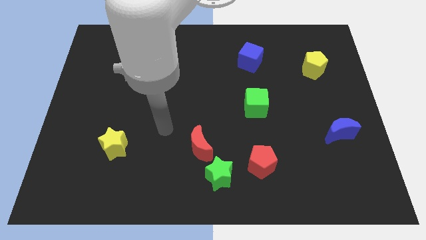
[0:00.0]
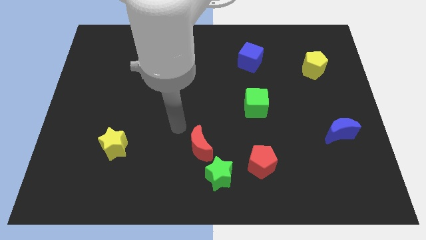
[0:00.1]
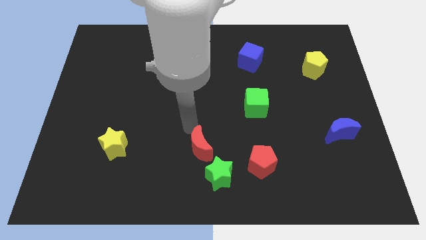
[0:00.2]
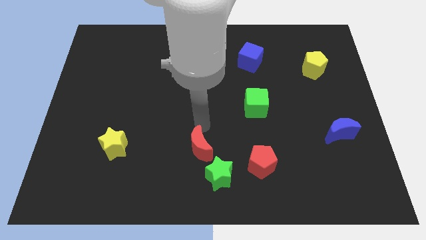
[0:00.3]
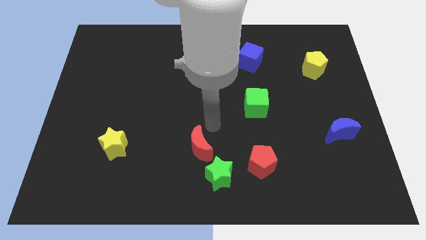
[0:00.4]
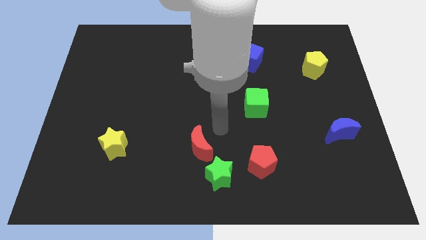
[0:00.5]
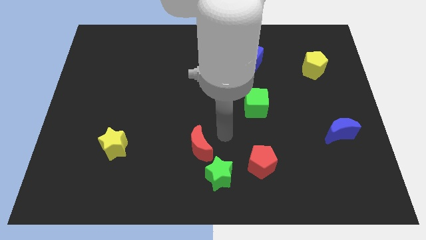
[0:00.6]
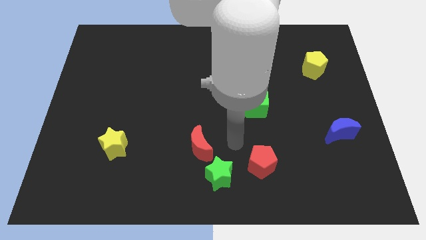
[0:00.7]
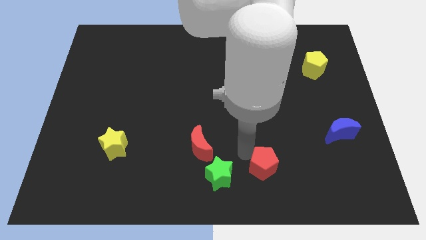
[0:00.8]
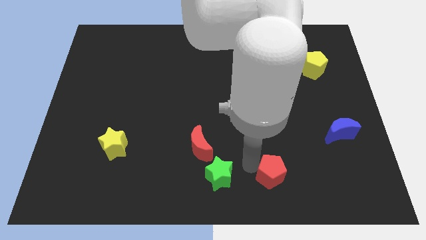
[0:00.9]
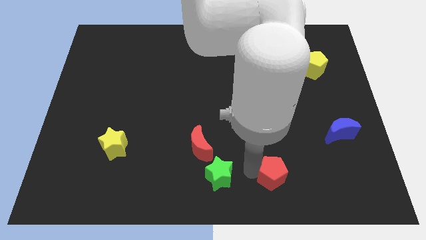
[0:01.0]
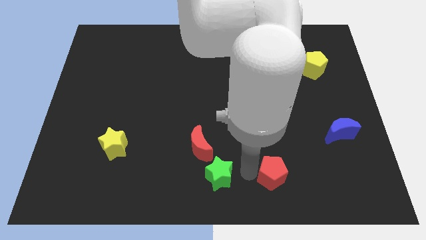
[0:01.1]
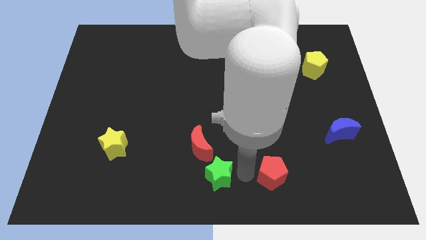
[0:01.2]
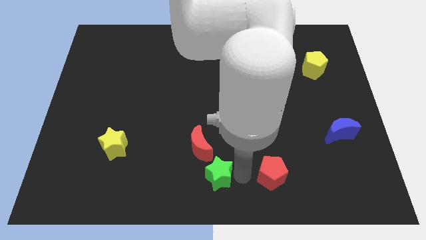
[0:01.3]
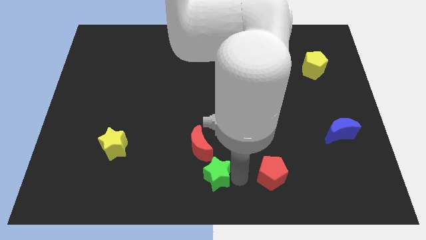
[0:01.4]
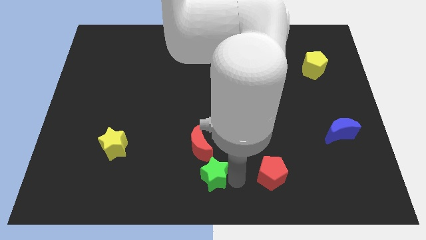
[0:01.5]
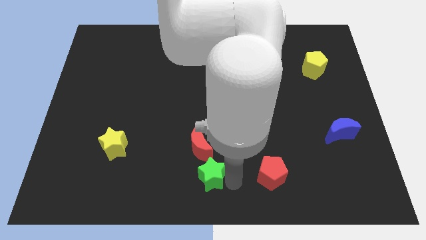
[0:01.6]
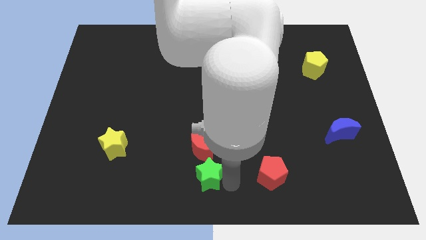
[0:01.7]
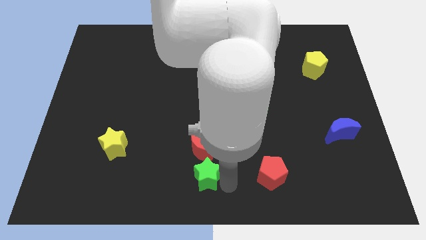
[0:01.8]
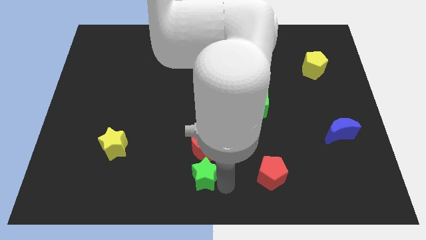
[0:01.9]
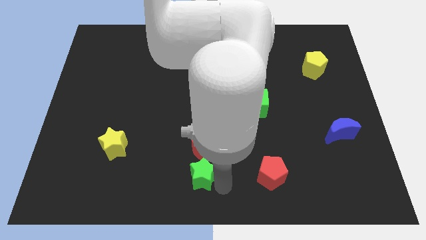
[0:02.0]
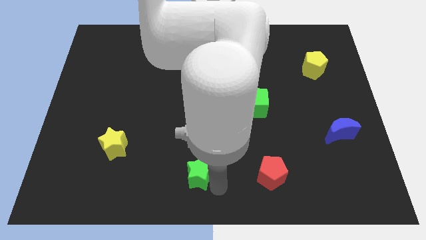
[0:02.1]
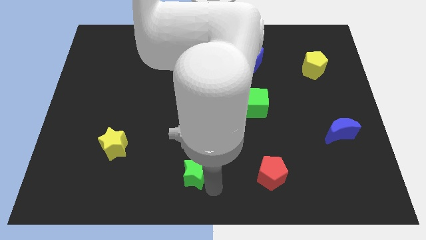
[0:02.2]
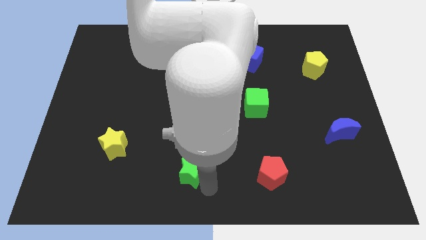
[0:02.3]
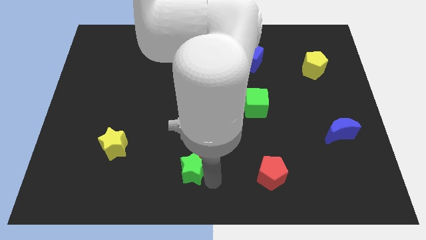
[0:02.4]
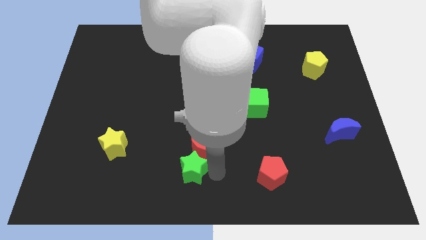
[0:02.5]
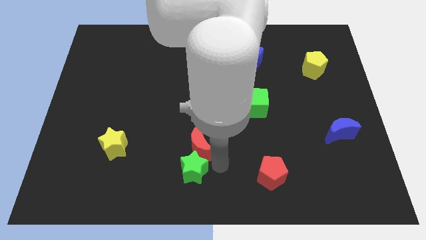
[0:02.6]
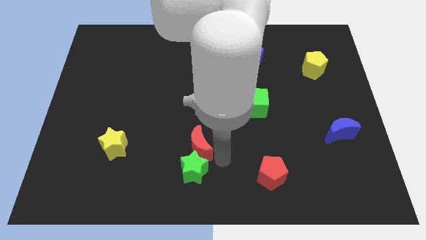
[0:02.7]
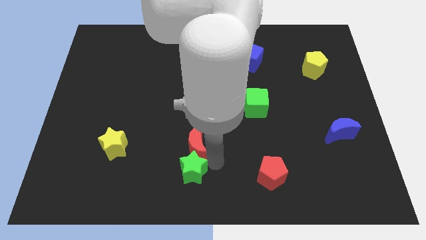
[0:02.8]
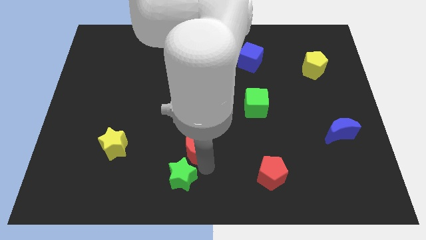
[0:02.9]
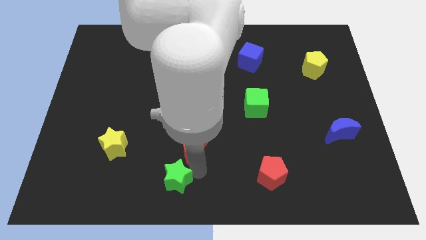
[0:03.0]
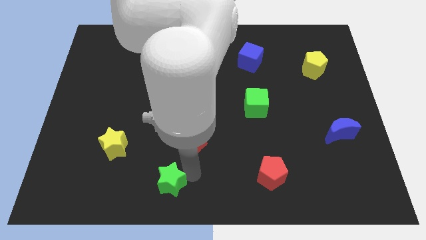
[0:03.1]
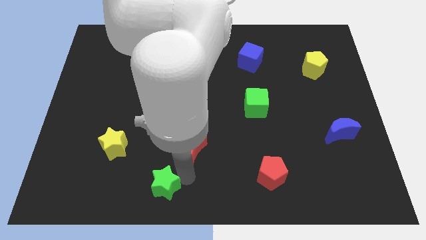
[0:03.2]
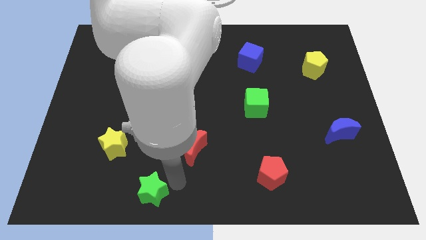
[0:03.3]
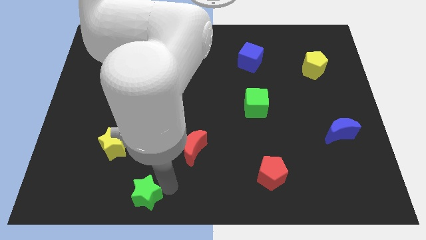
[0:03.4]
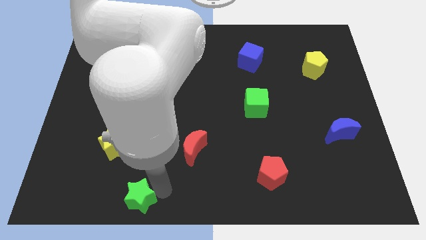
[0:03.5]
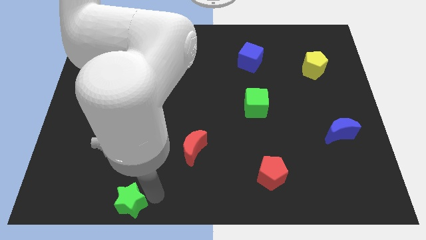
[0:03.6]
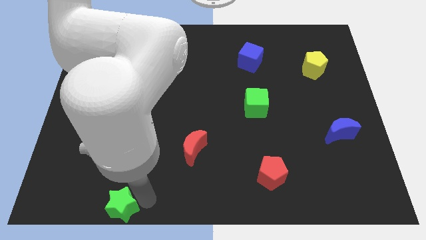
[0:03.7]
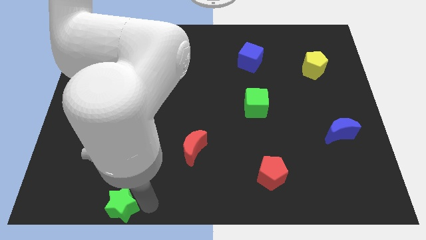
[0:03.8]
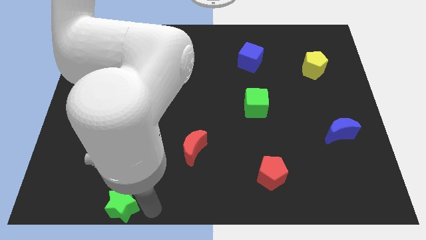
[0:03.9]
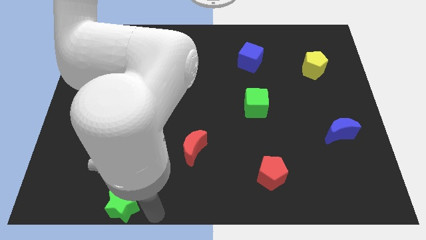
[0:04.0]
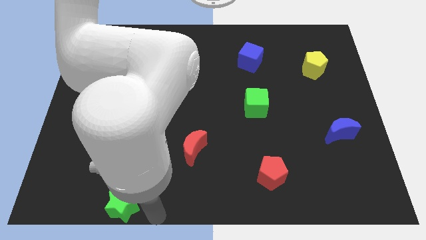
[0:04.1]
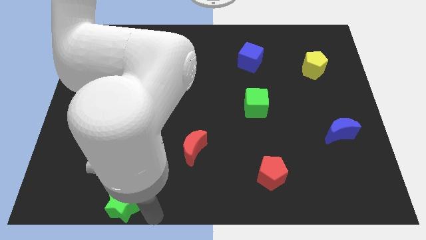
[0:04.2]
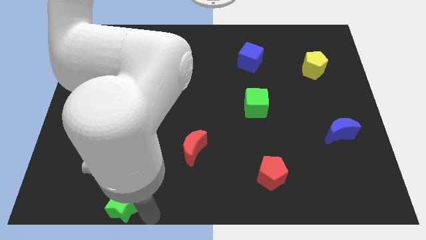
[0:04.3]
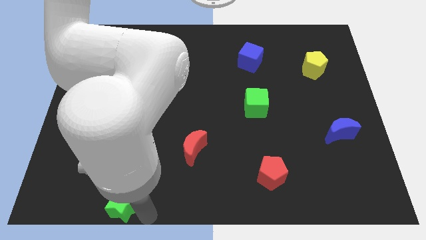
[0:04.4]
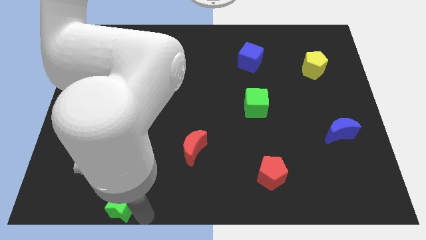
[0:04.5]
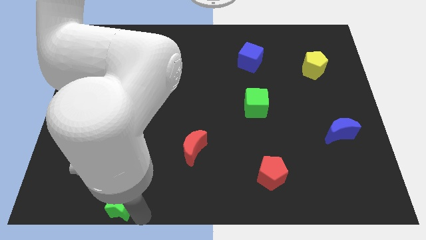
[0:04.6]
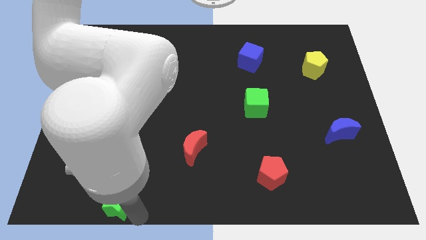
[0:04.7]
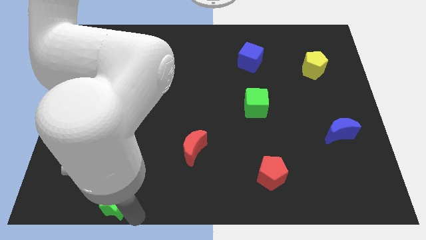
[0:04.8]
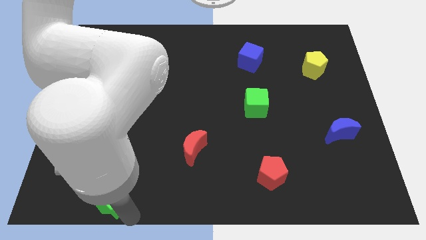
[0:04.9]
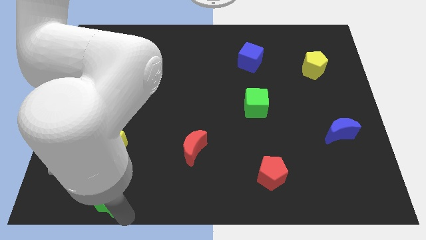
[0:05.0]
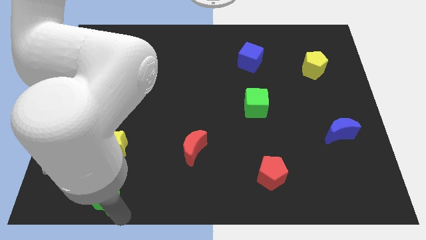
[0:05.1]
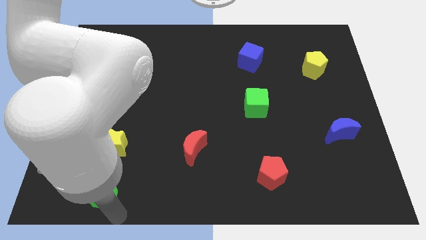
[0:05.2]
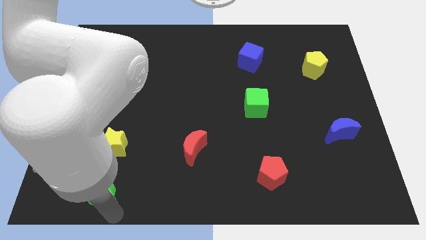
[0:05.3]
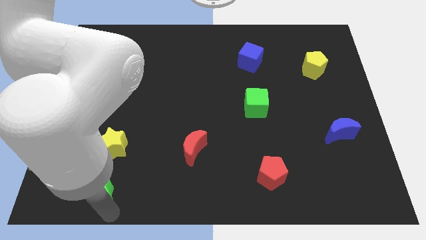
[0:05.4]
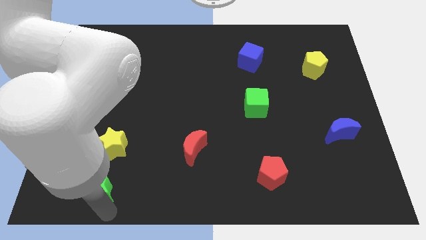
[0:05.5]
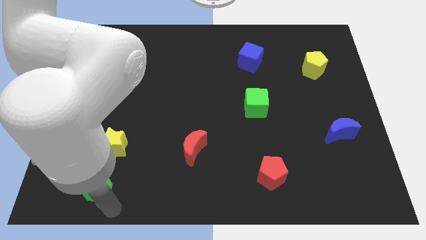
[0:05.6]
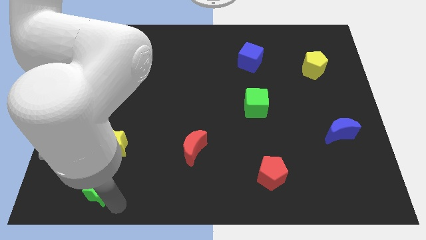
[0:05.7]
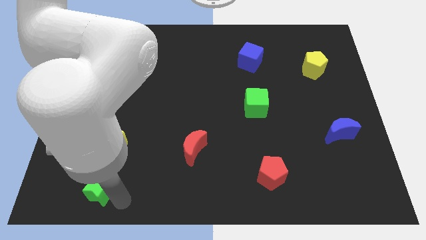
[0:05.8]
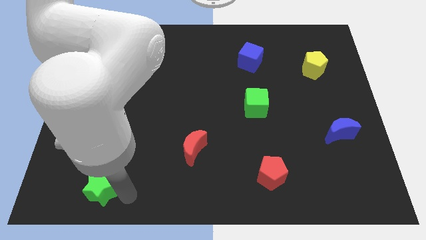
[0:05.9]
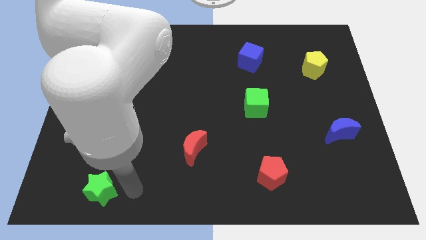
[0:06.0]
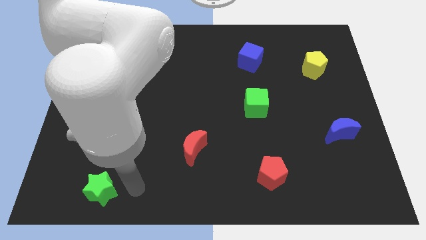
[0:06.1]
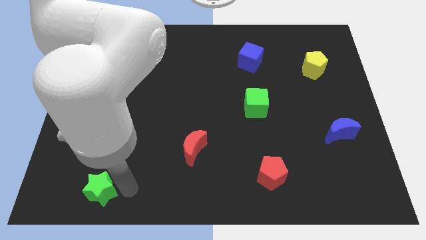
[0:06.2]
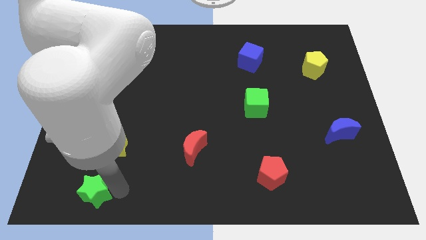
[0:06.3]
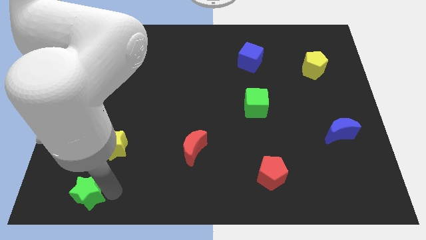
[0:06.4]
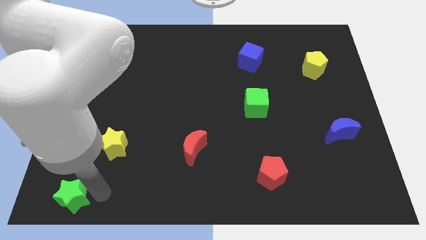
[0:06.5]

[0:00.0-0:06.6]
slide the green star to the bottom left corner
